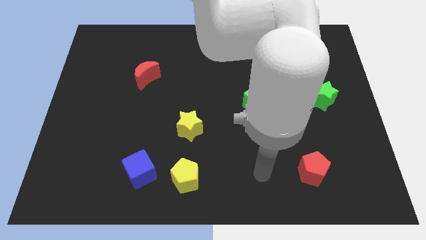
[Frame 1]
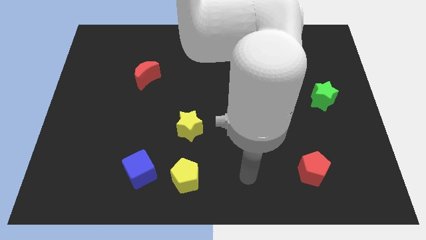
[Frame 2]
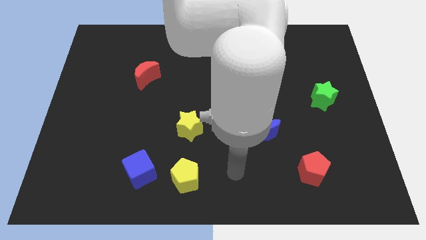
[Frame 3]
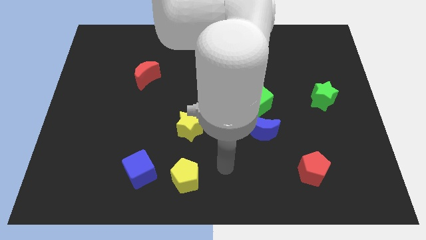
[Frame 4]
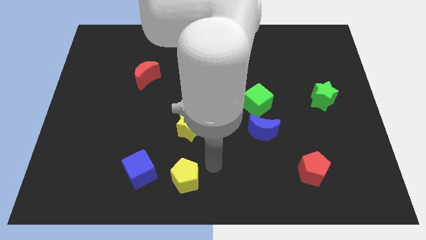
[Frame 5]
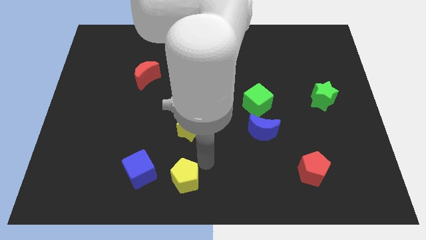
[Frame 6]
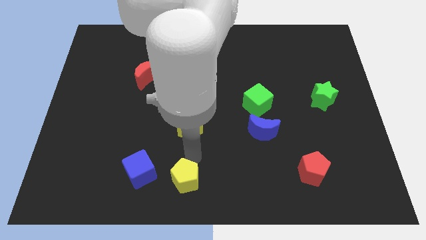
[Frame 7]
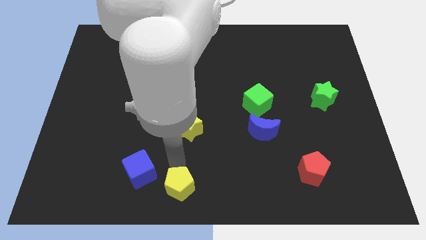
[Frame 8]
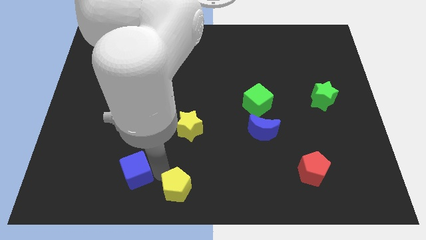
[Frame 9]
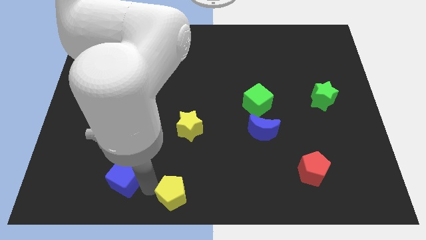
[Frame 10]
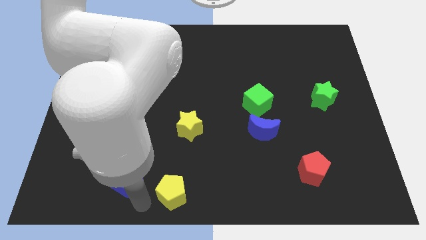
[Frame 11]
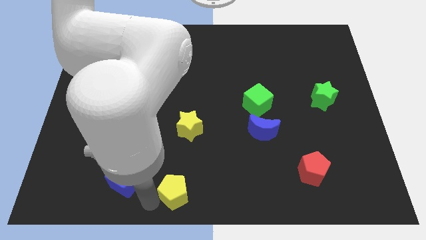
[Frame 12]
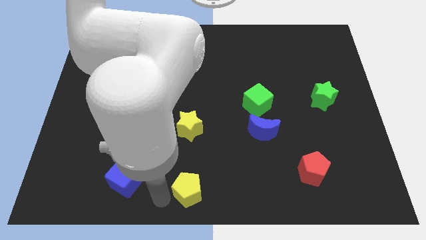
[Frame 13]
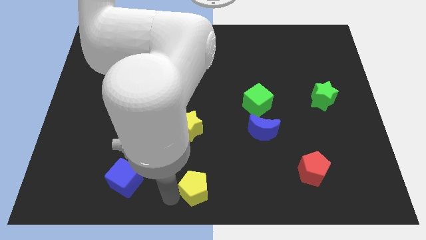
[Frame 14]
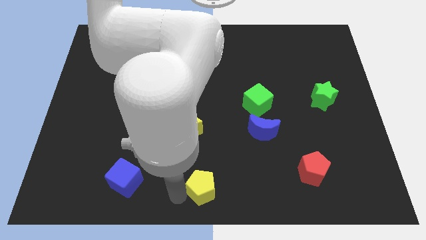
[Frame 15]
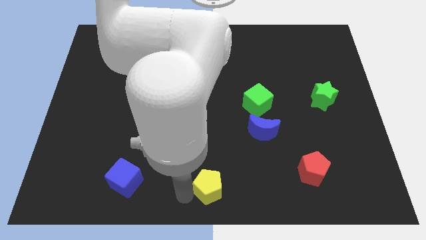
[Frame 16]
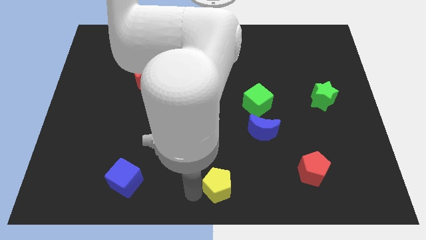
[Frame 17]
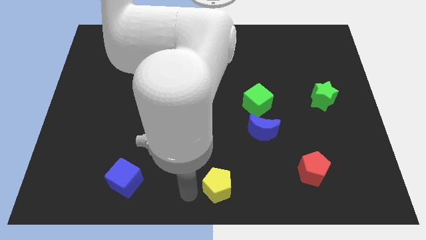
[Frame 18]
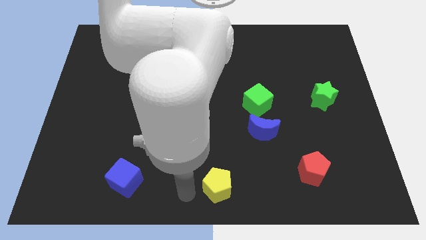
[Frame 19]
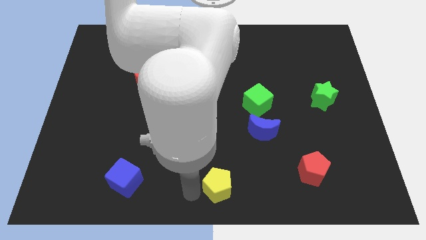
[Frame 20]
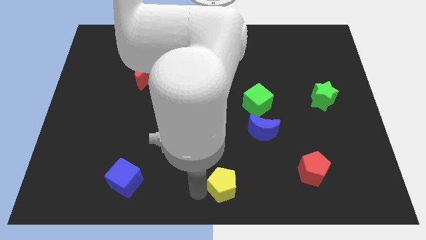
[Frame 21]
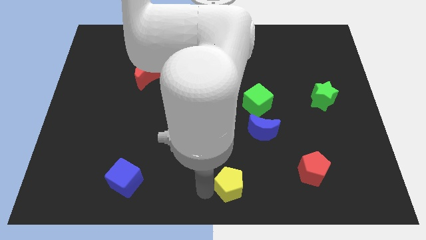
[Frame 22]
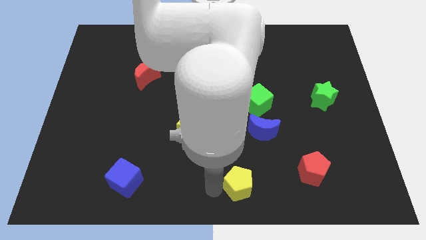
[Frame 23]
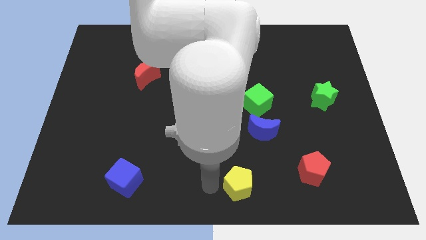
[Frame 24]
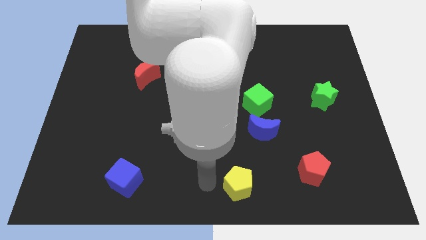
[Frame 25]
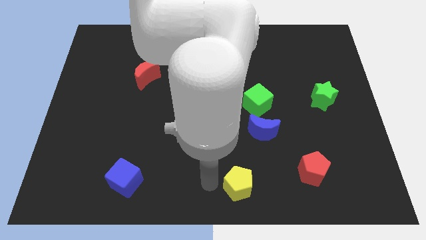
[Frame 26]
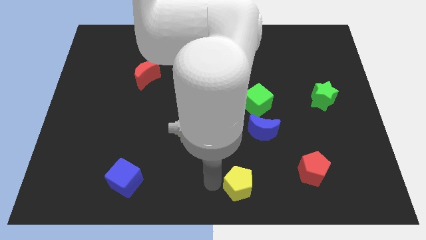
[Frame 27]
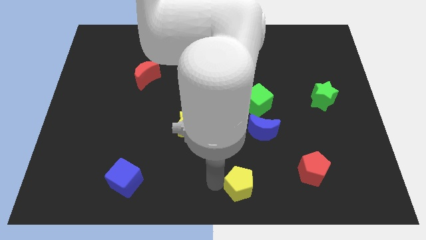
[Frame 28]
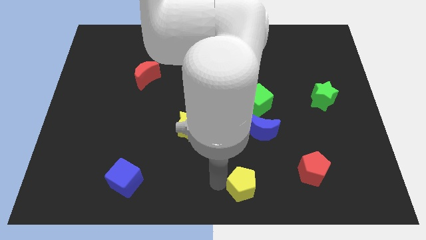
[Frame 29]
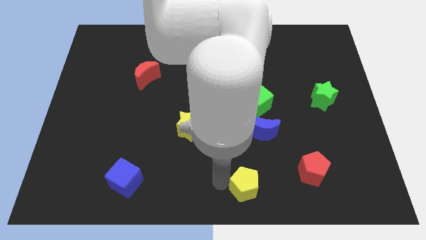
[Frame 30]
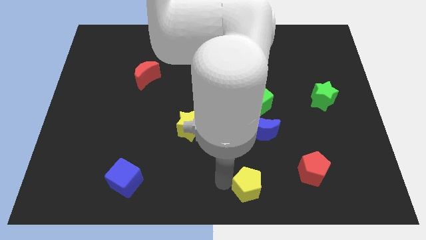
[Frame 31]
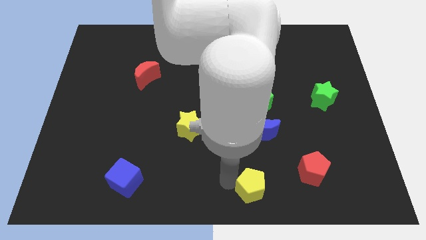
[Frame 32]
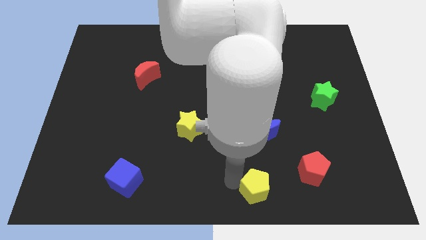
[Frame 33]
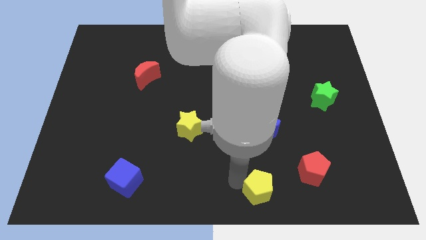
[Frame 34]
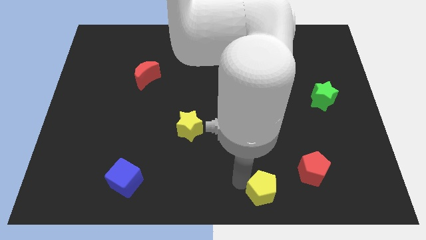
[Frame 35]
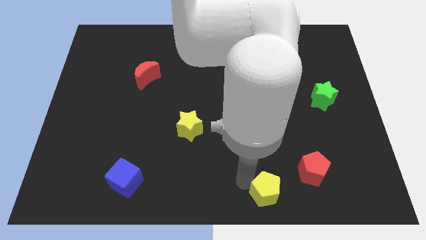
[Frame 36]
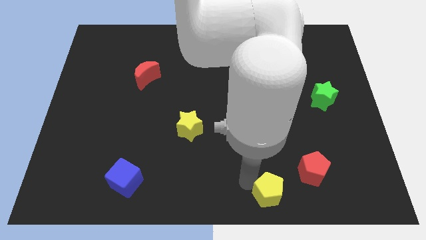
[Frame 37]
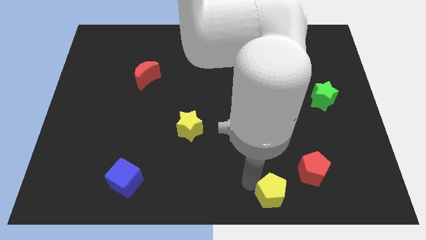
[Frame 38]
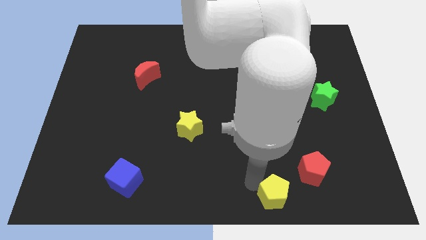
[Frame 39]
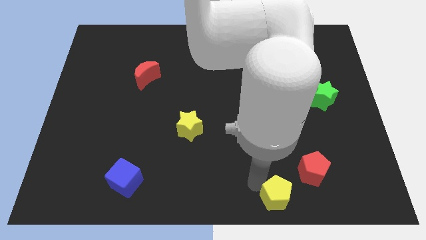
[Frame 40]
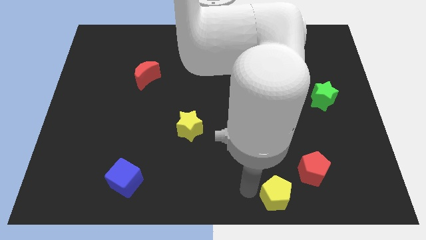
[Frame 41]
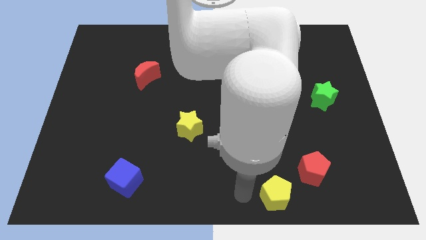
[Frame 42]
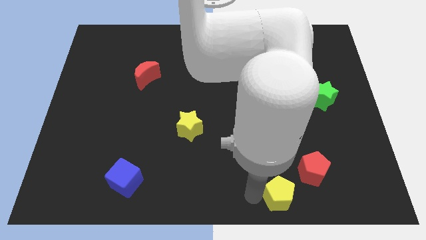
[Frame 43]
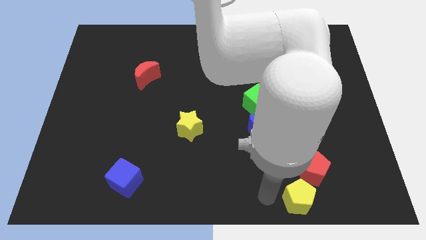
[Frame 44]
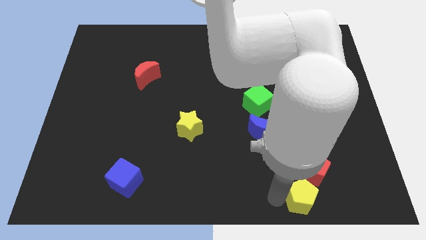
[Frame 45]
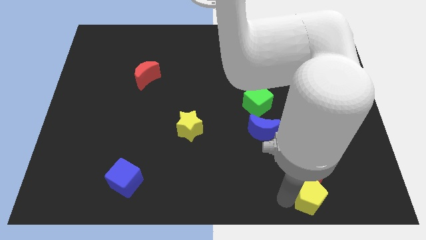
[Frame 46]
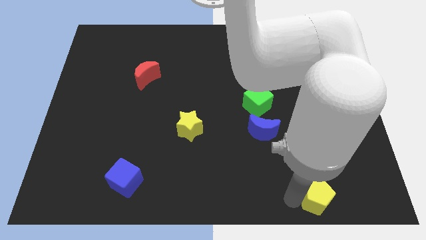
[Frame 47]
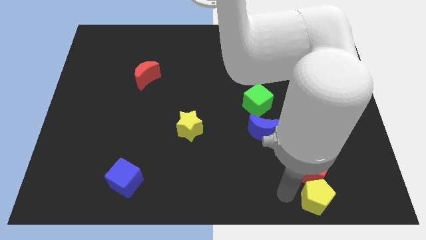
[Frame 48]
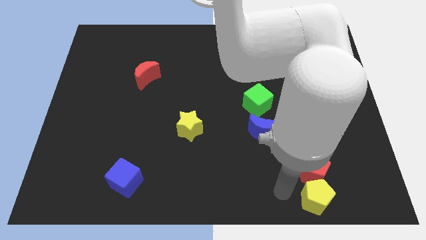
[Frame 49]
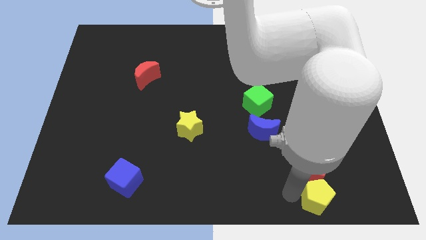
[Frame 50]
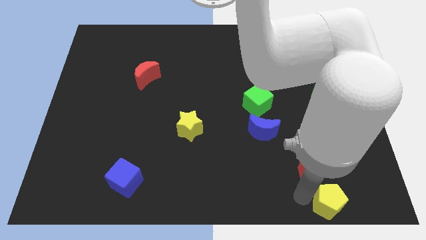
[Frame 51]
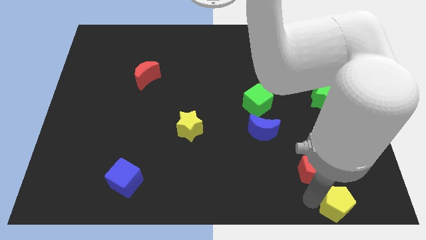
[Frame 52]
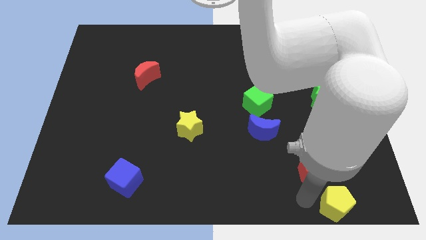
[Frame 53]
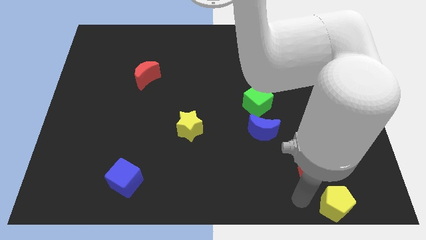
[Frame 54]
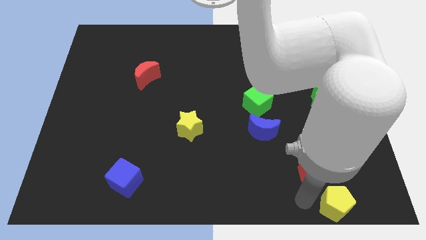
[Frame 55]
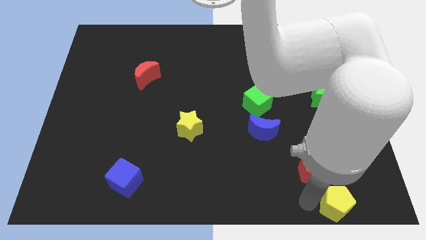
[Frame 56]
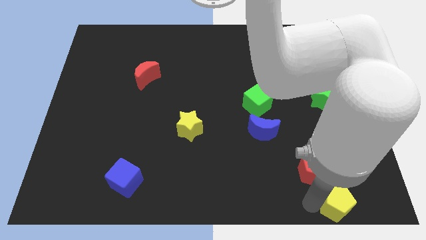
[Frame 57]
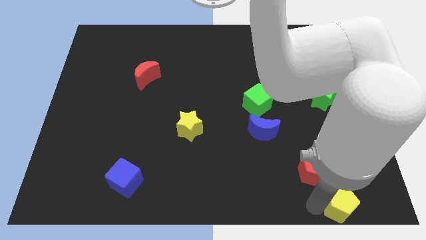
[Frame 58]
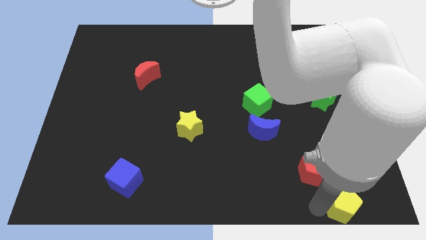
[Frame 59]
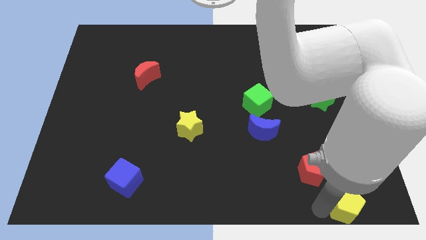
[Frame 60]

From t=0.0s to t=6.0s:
push the yellow pentagon to the bottom right of the board

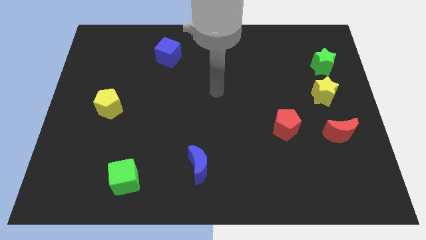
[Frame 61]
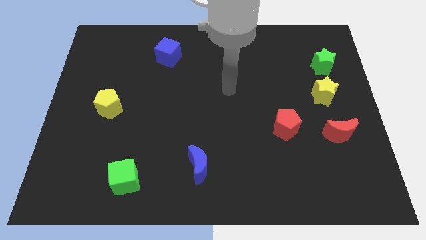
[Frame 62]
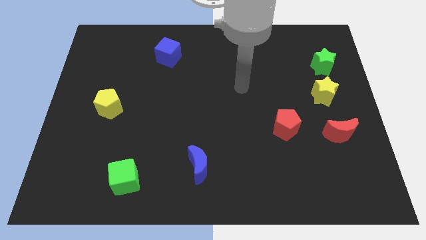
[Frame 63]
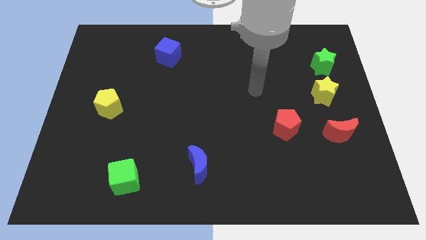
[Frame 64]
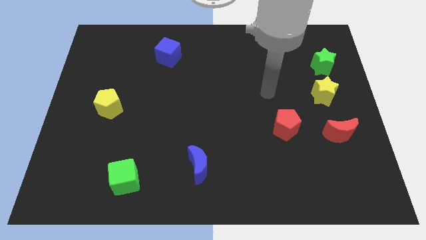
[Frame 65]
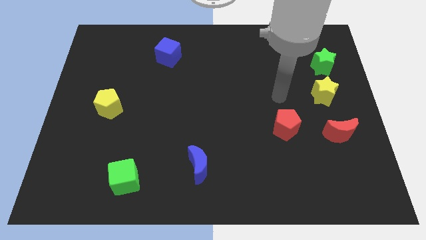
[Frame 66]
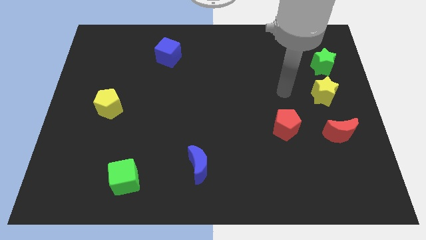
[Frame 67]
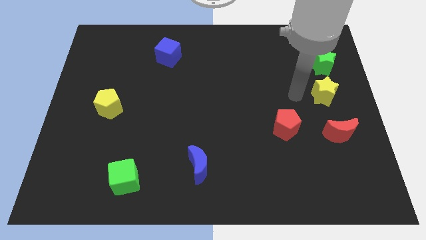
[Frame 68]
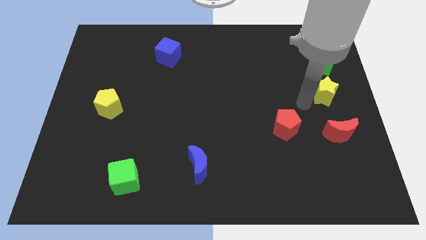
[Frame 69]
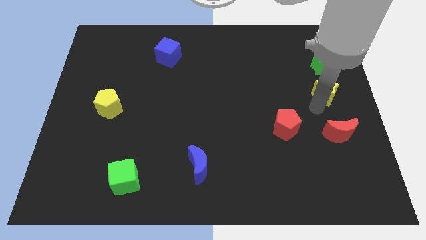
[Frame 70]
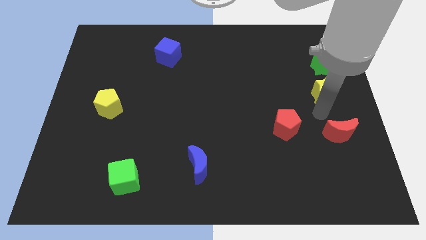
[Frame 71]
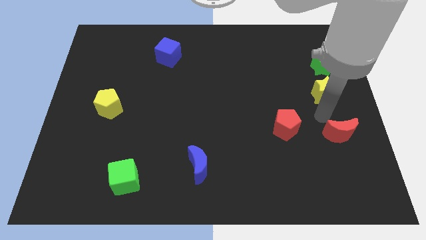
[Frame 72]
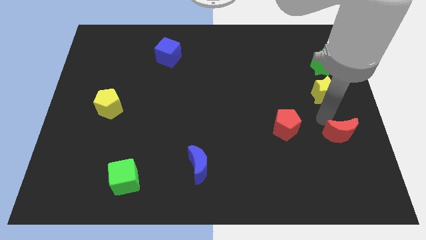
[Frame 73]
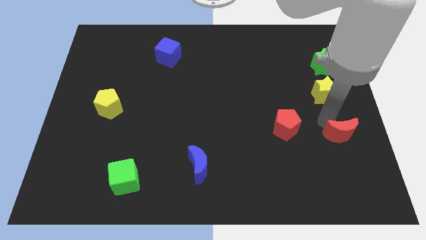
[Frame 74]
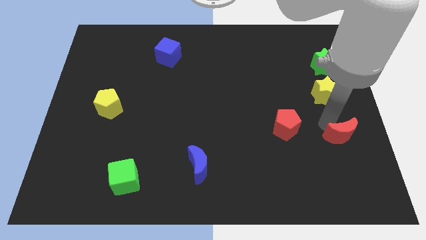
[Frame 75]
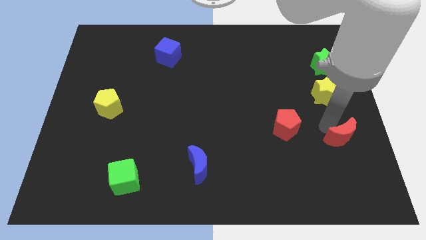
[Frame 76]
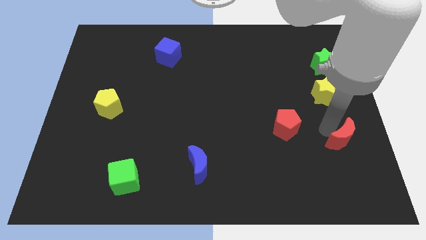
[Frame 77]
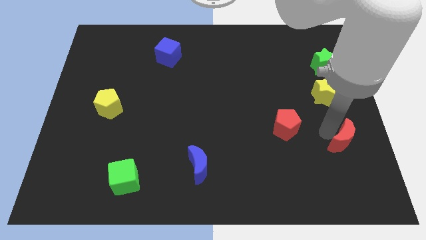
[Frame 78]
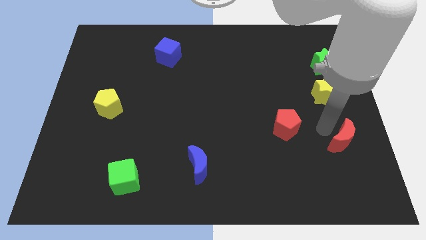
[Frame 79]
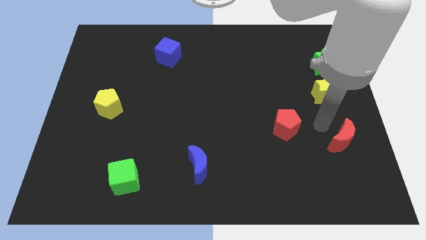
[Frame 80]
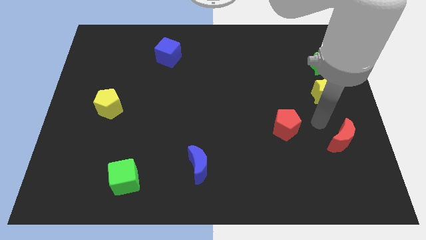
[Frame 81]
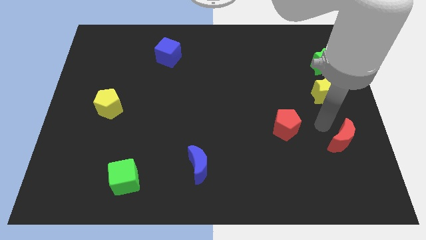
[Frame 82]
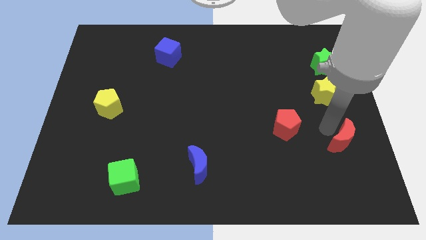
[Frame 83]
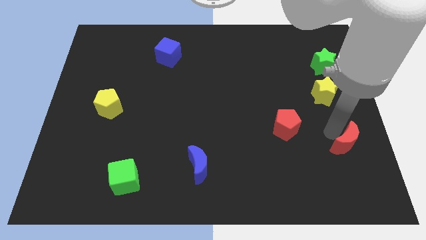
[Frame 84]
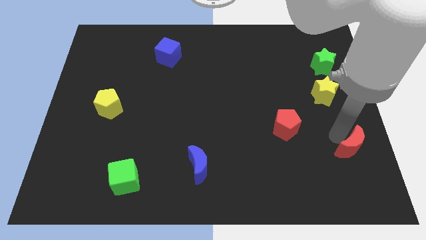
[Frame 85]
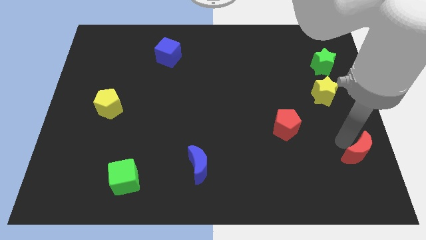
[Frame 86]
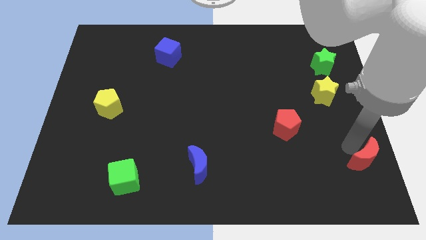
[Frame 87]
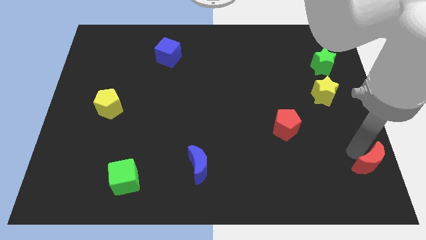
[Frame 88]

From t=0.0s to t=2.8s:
put the red moon to the bottom right corner
